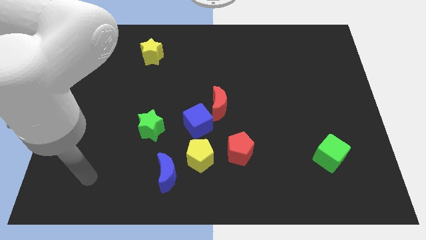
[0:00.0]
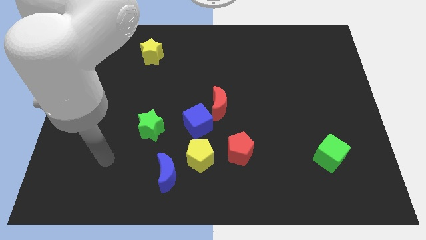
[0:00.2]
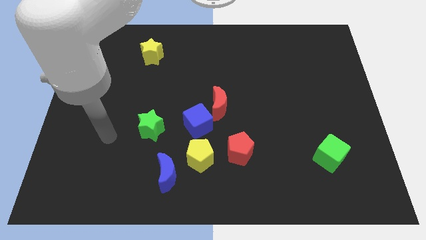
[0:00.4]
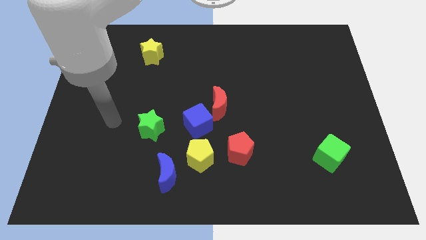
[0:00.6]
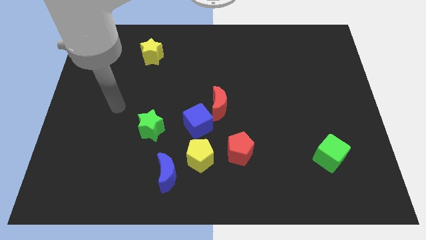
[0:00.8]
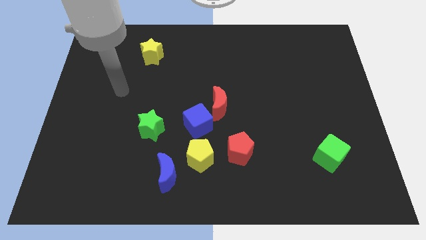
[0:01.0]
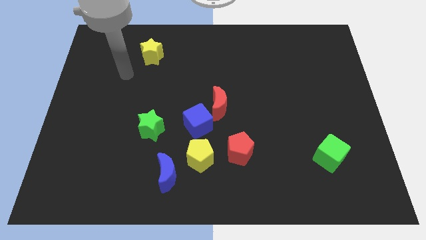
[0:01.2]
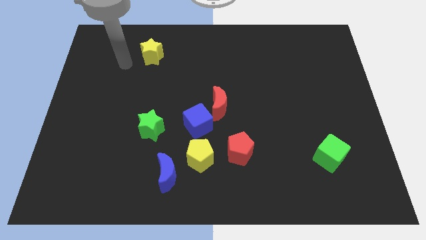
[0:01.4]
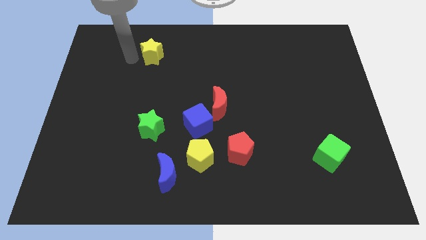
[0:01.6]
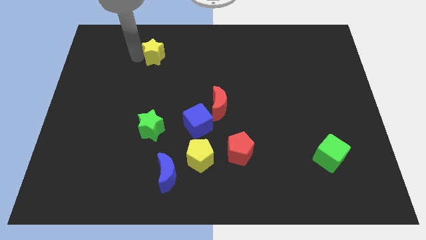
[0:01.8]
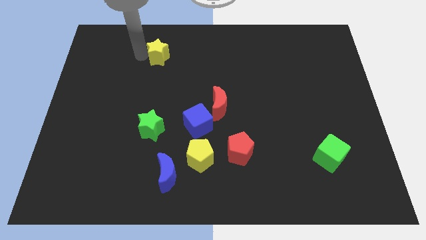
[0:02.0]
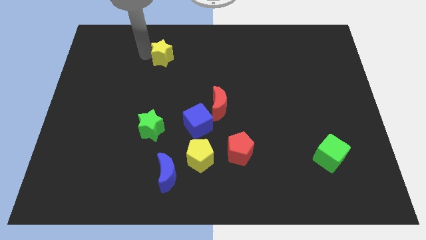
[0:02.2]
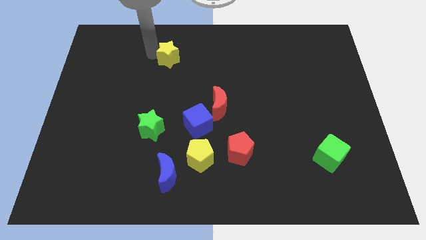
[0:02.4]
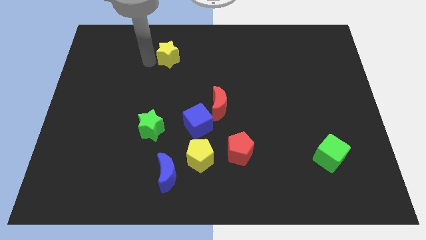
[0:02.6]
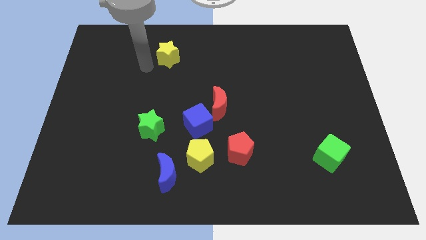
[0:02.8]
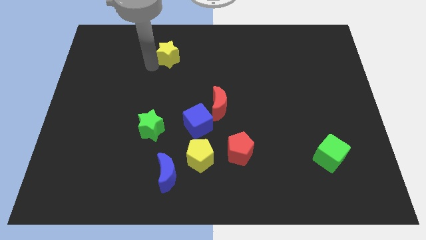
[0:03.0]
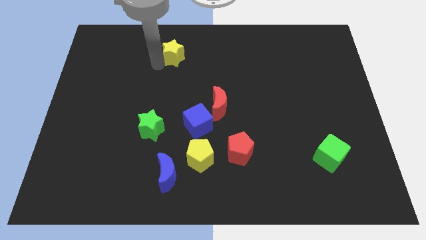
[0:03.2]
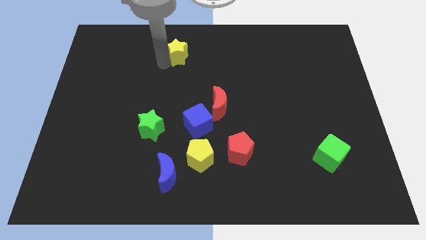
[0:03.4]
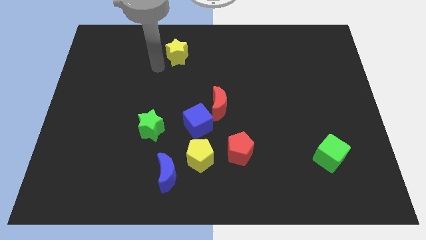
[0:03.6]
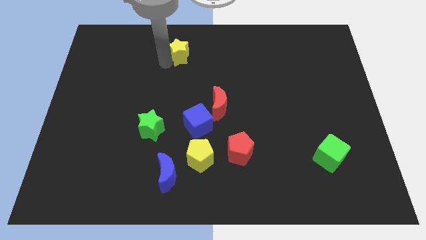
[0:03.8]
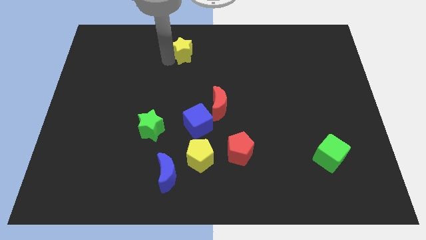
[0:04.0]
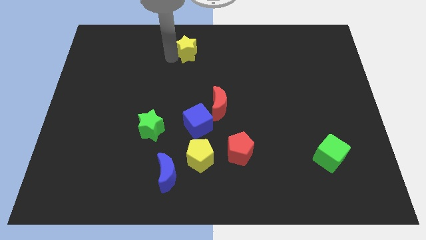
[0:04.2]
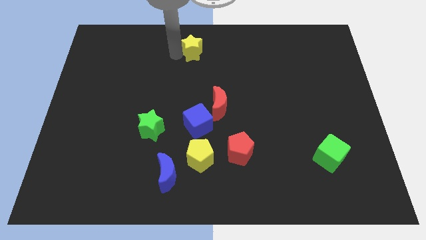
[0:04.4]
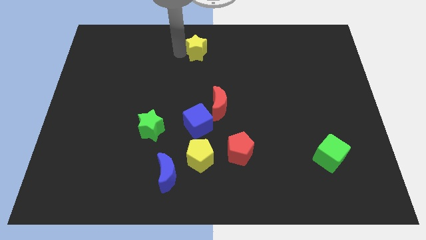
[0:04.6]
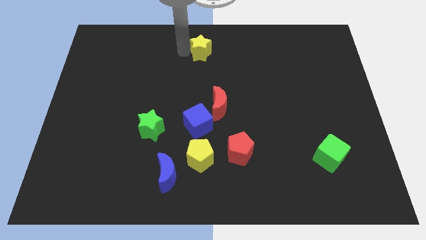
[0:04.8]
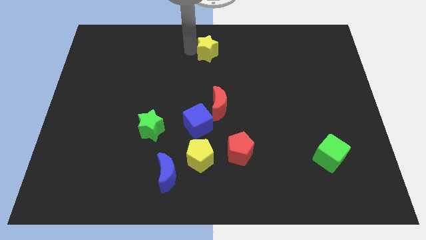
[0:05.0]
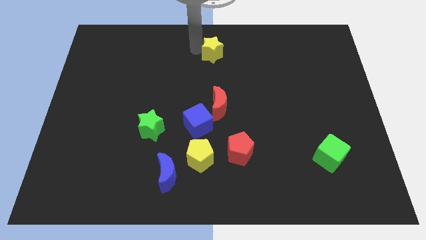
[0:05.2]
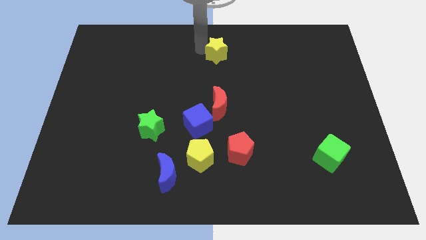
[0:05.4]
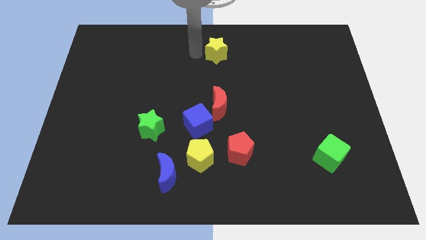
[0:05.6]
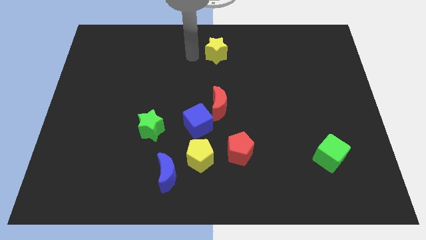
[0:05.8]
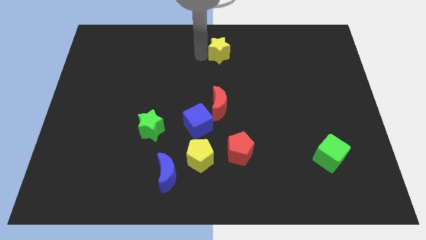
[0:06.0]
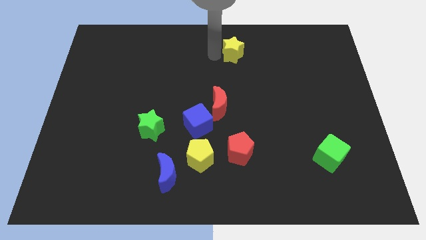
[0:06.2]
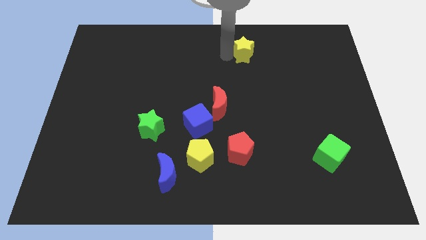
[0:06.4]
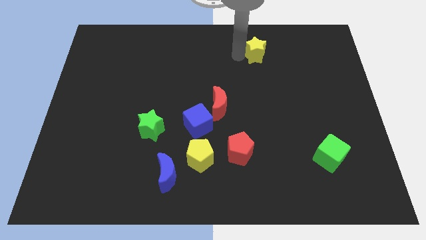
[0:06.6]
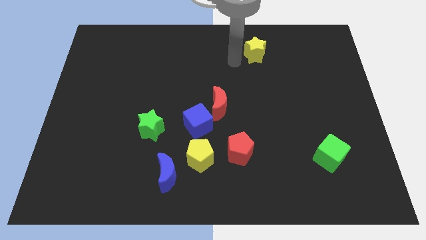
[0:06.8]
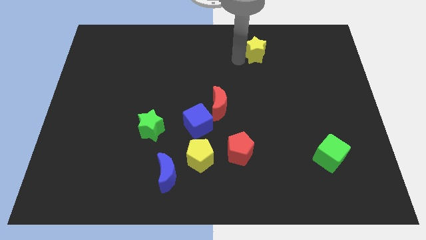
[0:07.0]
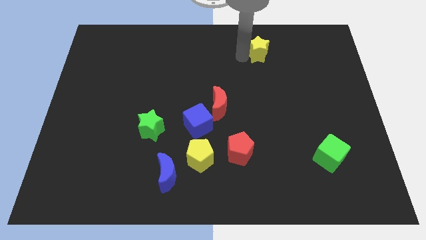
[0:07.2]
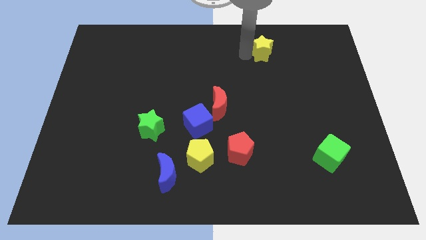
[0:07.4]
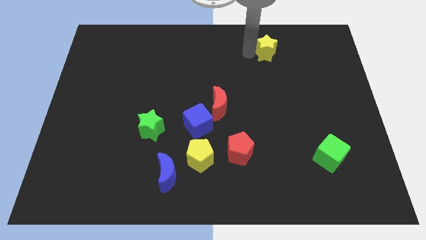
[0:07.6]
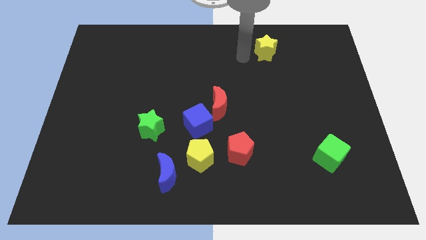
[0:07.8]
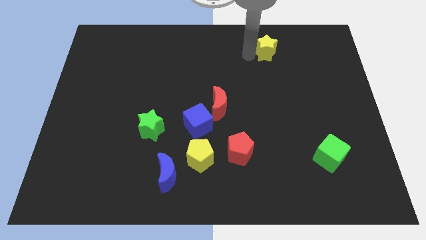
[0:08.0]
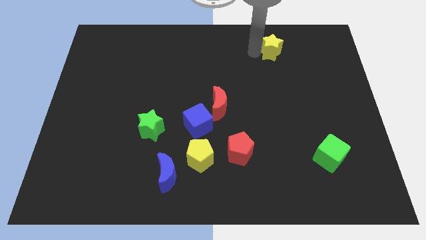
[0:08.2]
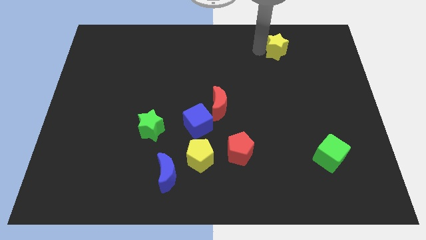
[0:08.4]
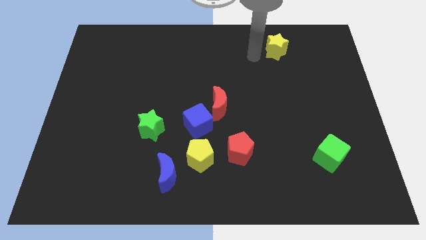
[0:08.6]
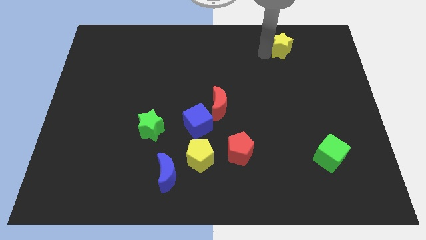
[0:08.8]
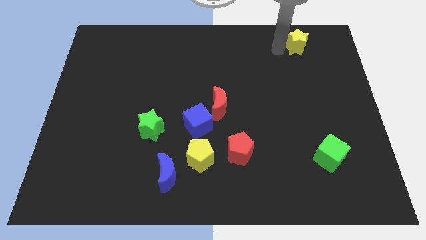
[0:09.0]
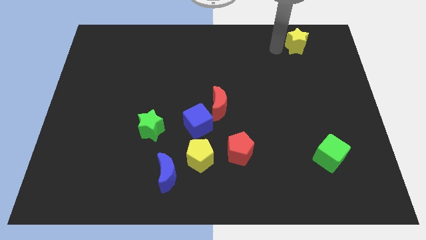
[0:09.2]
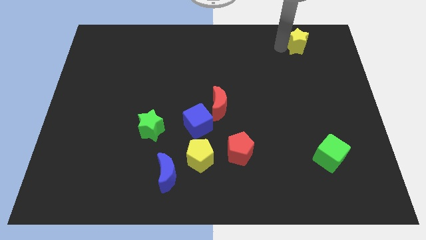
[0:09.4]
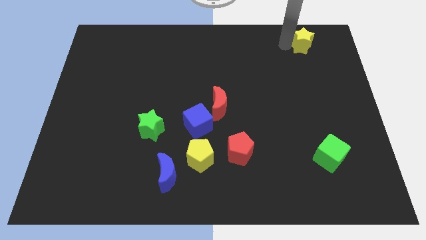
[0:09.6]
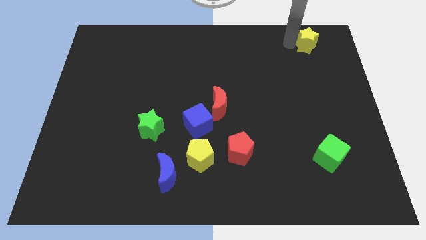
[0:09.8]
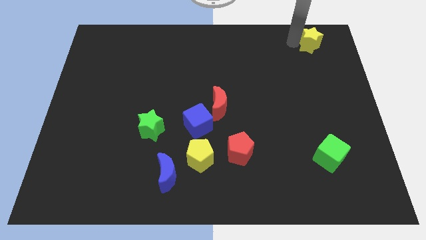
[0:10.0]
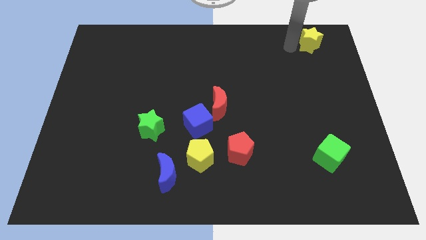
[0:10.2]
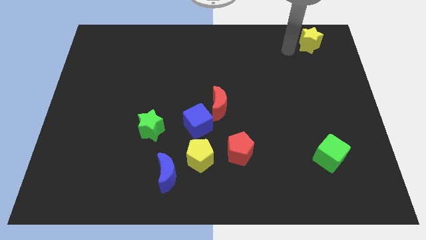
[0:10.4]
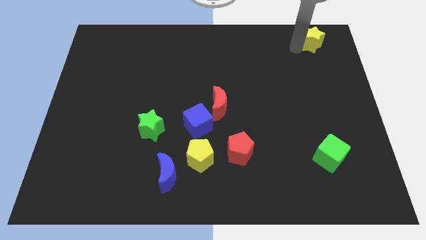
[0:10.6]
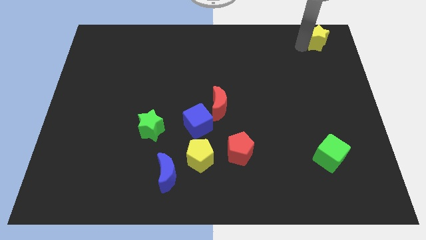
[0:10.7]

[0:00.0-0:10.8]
push the yellow star to the top right corner

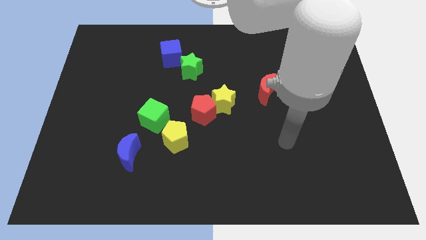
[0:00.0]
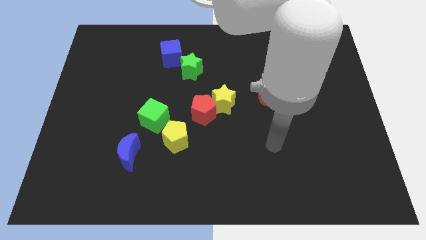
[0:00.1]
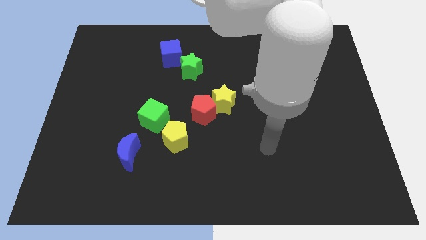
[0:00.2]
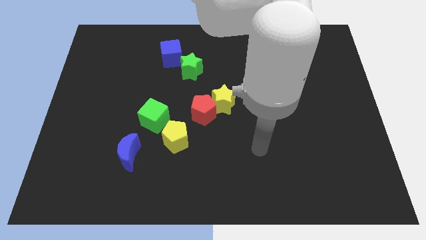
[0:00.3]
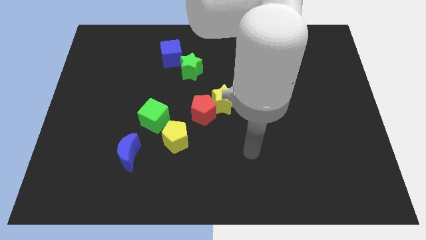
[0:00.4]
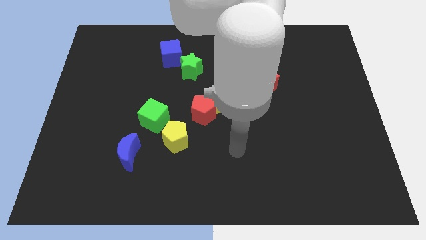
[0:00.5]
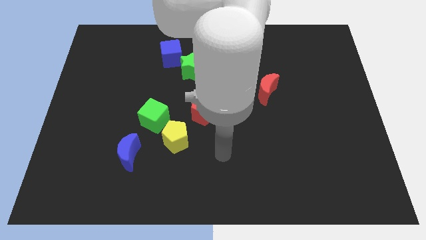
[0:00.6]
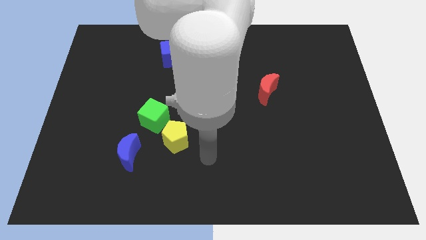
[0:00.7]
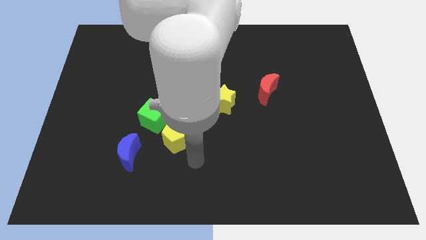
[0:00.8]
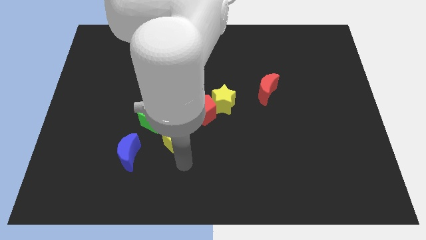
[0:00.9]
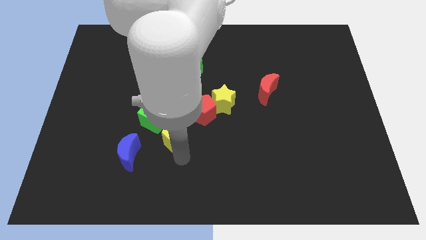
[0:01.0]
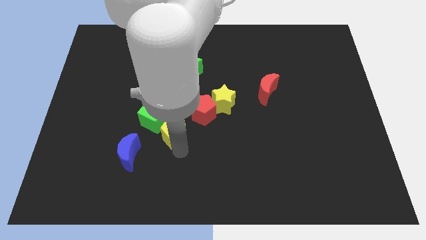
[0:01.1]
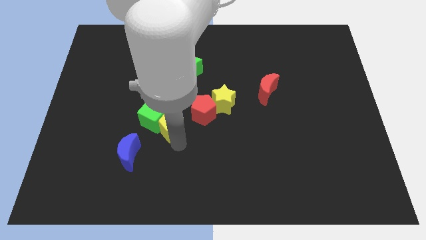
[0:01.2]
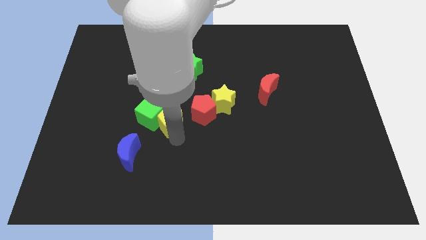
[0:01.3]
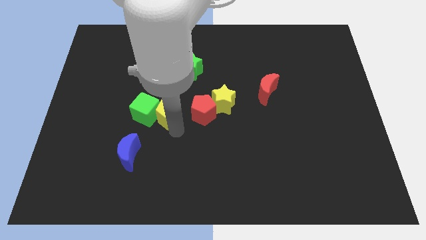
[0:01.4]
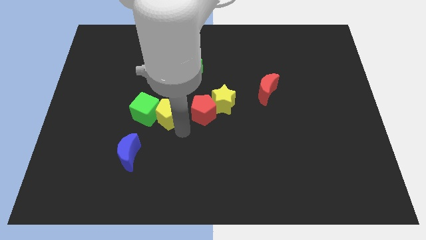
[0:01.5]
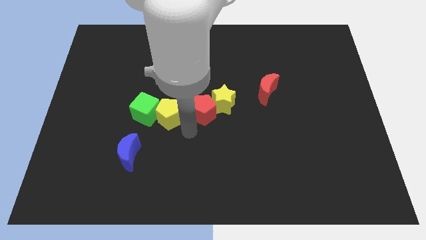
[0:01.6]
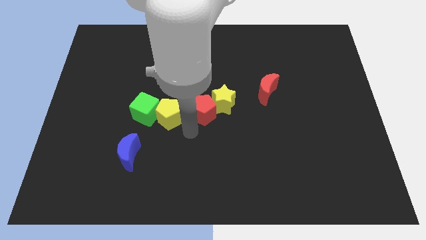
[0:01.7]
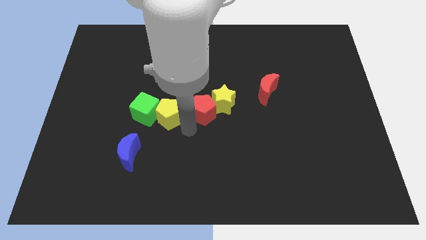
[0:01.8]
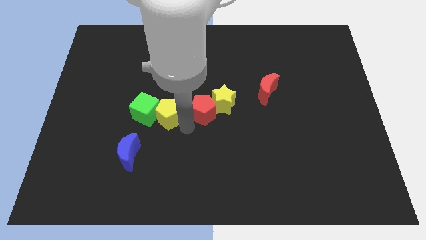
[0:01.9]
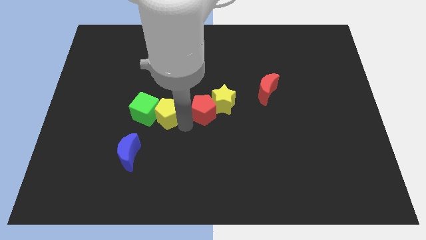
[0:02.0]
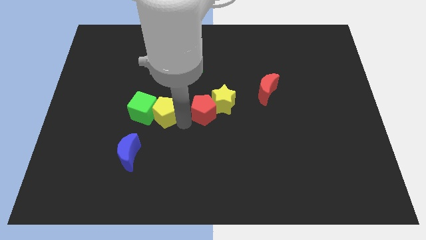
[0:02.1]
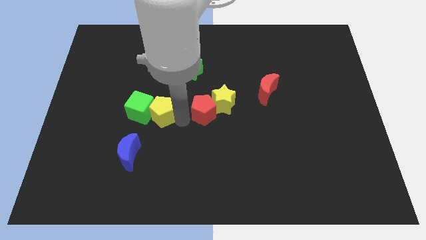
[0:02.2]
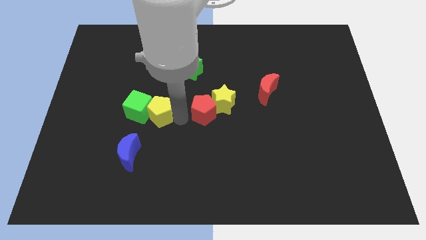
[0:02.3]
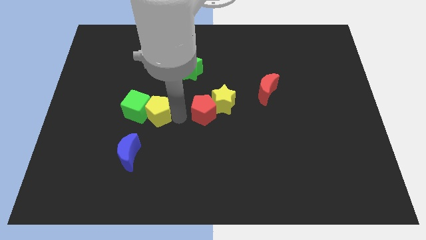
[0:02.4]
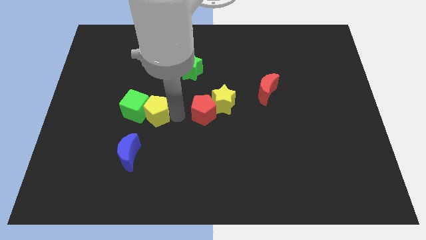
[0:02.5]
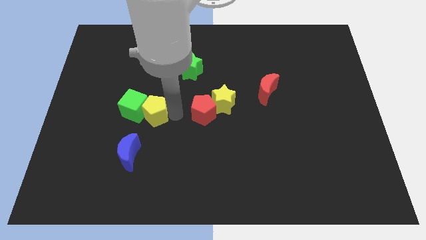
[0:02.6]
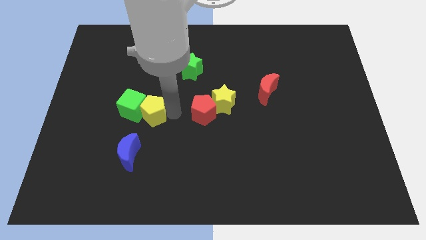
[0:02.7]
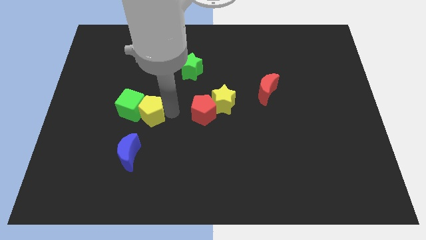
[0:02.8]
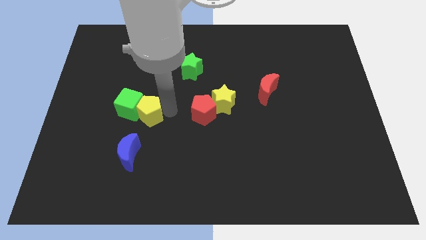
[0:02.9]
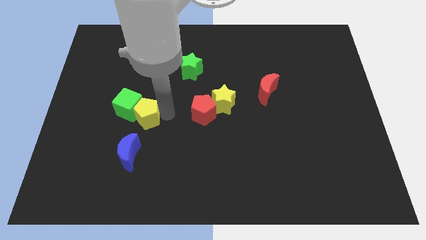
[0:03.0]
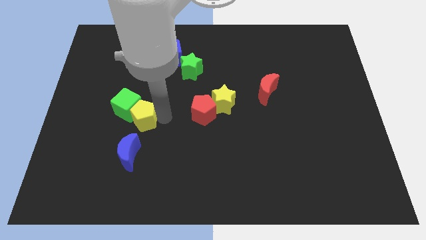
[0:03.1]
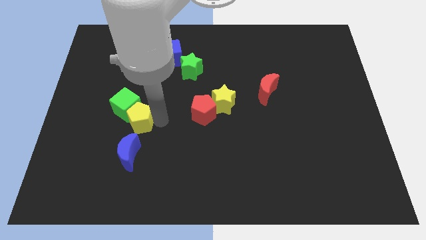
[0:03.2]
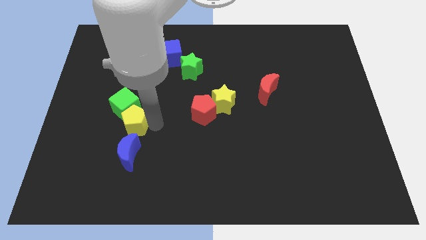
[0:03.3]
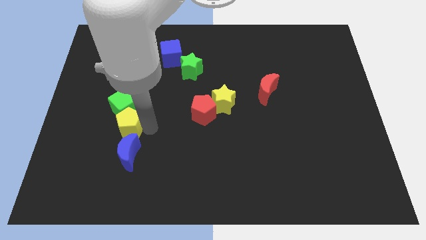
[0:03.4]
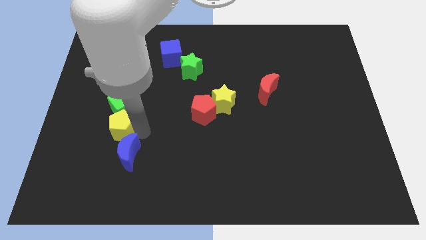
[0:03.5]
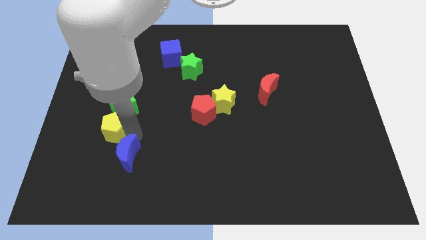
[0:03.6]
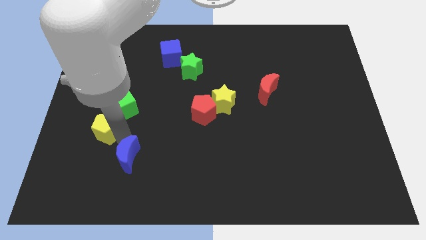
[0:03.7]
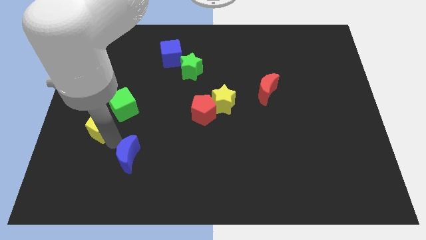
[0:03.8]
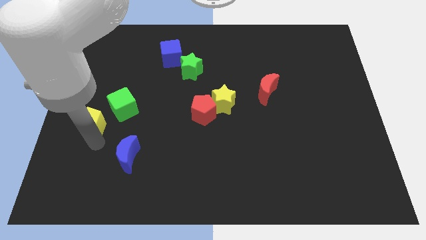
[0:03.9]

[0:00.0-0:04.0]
move the yellow pentagon to the center left
